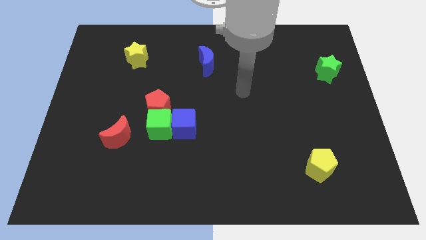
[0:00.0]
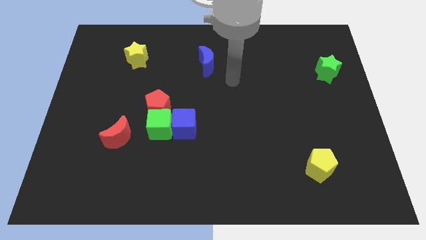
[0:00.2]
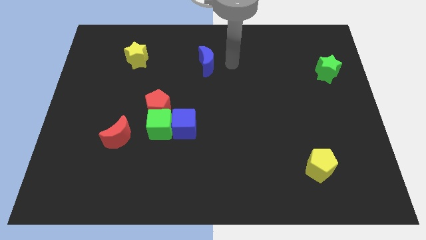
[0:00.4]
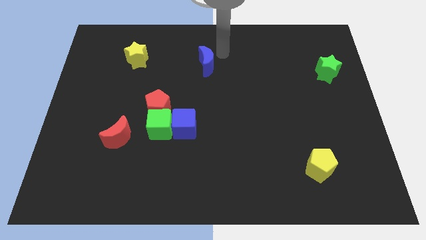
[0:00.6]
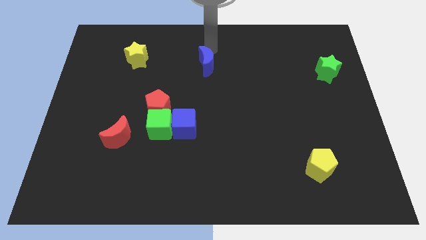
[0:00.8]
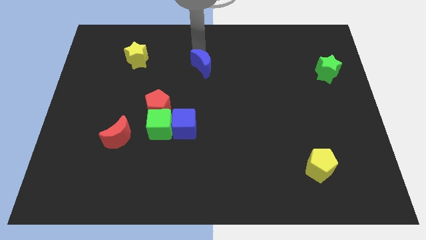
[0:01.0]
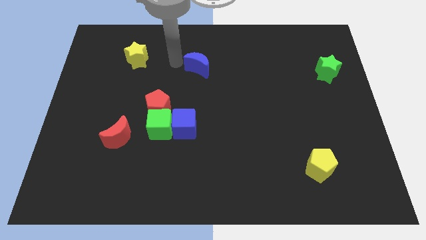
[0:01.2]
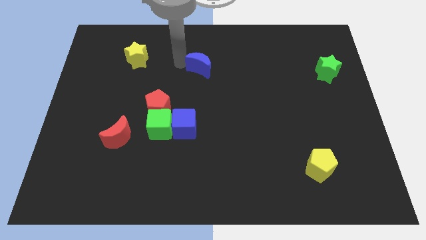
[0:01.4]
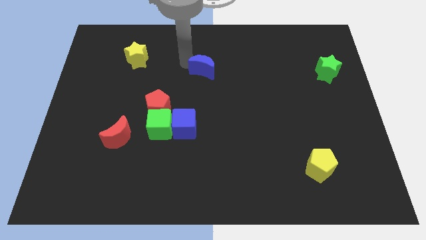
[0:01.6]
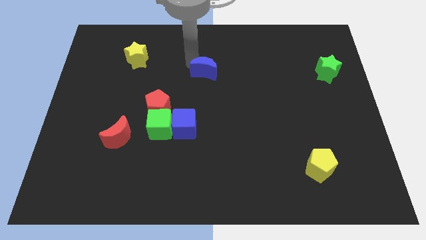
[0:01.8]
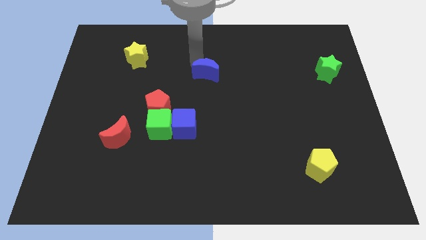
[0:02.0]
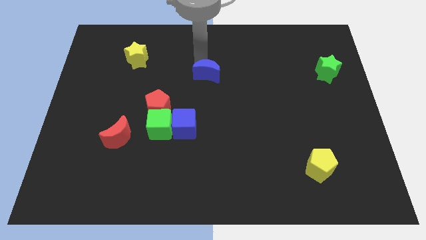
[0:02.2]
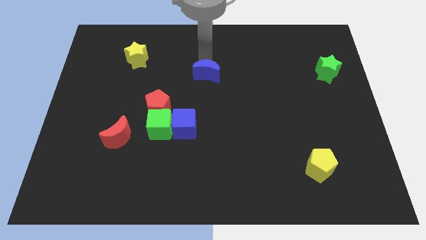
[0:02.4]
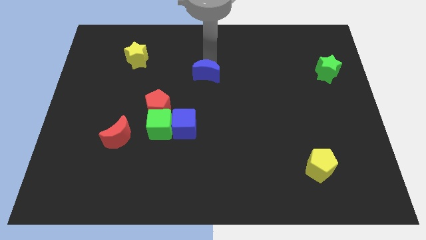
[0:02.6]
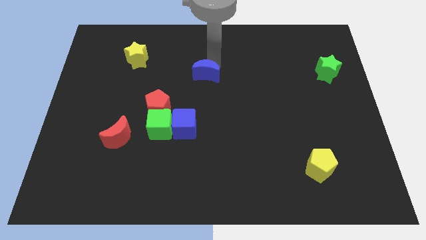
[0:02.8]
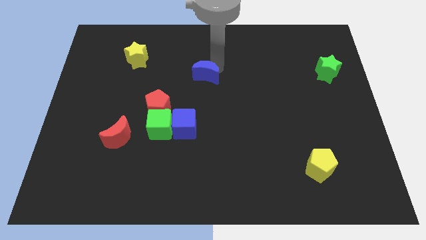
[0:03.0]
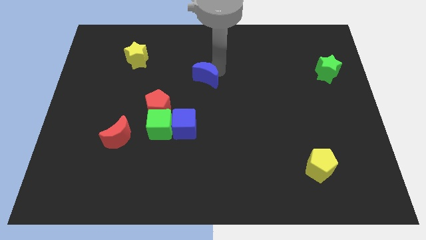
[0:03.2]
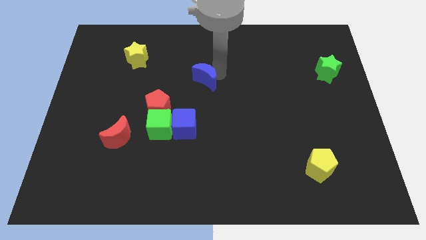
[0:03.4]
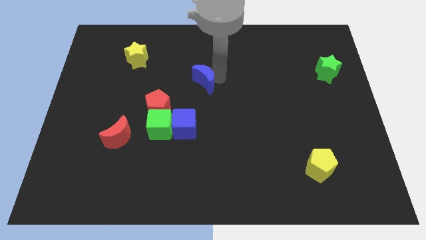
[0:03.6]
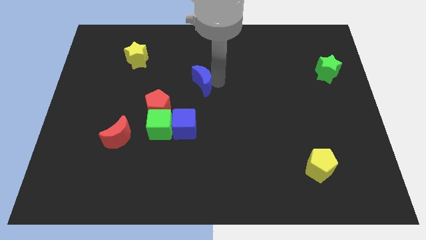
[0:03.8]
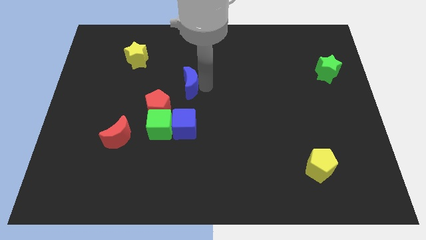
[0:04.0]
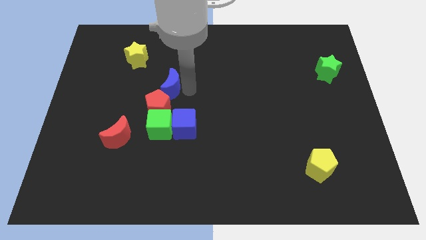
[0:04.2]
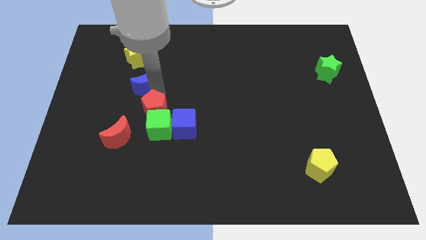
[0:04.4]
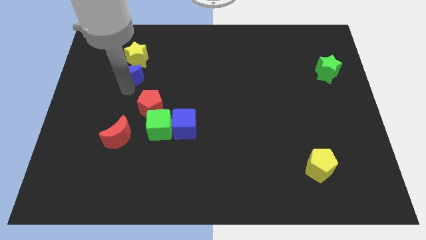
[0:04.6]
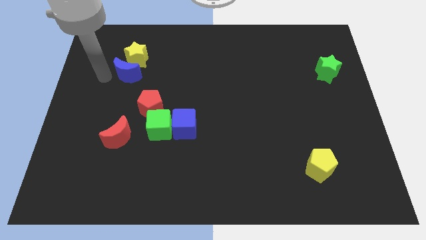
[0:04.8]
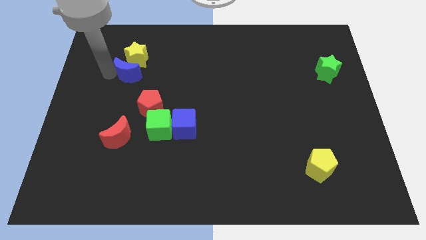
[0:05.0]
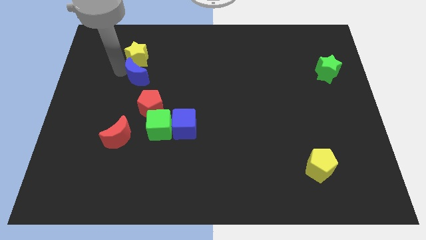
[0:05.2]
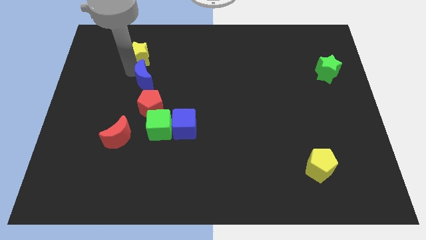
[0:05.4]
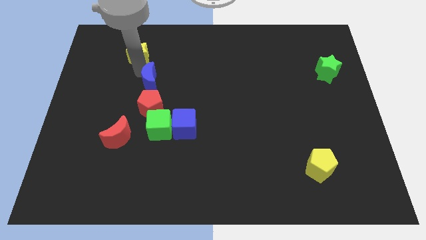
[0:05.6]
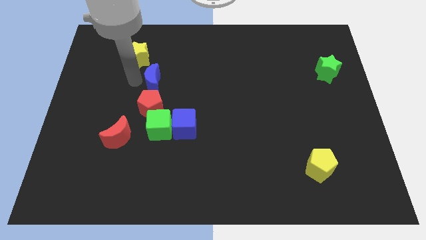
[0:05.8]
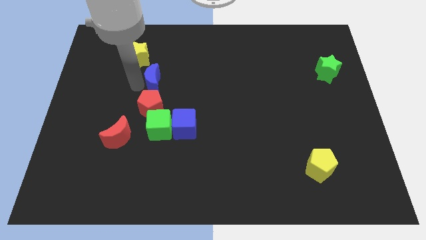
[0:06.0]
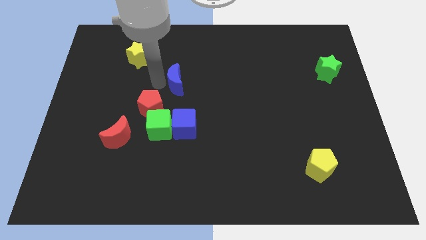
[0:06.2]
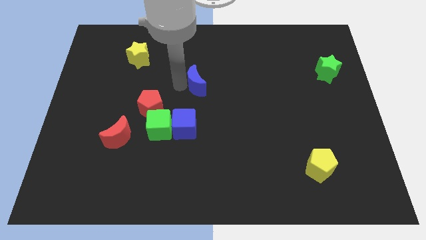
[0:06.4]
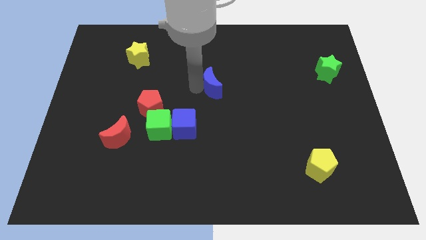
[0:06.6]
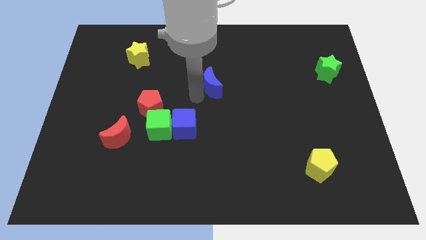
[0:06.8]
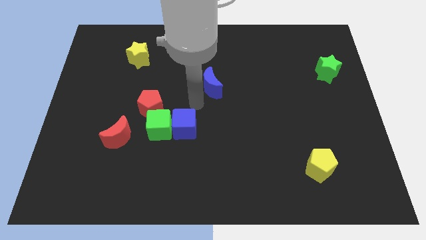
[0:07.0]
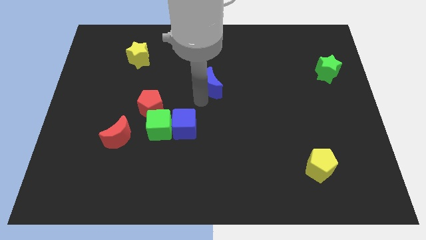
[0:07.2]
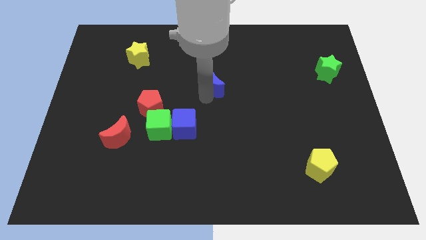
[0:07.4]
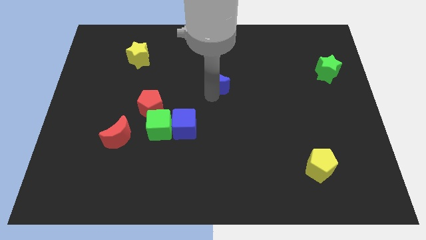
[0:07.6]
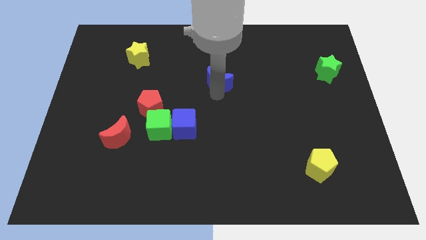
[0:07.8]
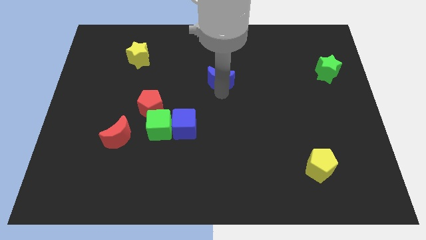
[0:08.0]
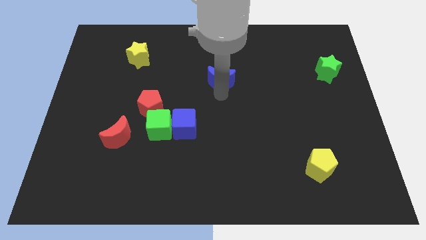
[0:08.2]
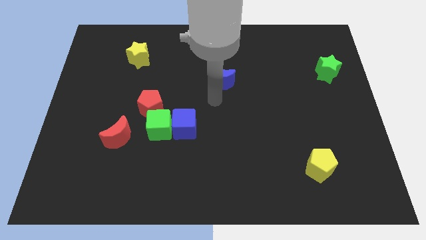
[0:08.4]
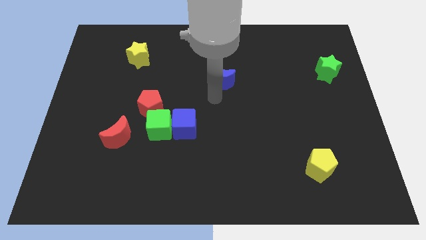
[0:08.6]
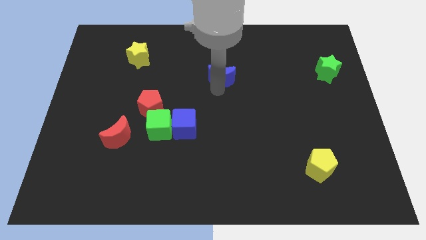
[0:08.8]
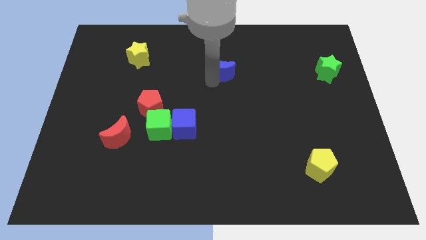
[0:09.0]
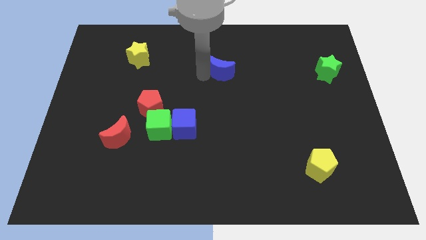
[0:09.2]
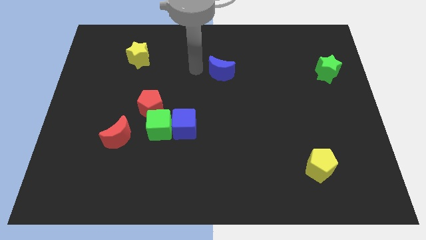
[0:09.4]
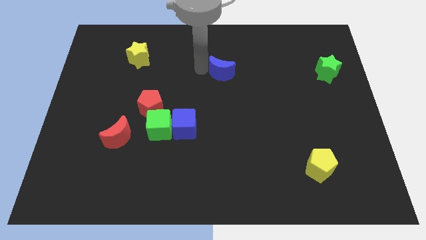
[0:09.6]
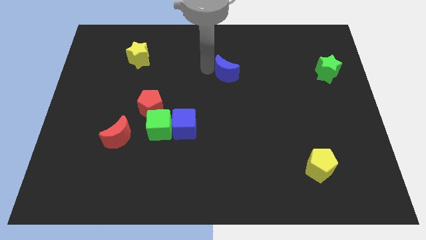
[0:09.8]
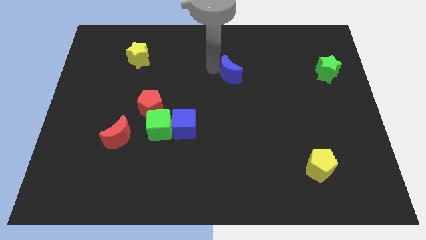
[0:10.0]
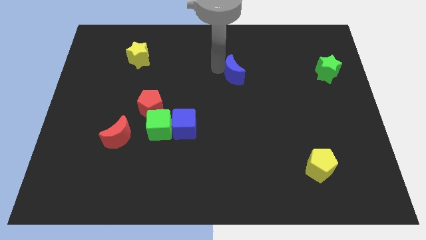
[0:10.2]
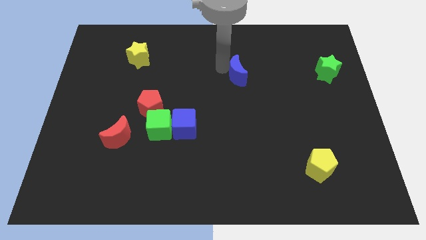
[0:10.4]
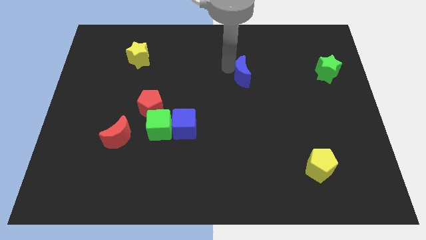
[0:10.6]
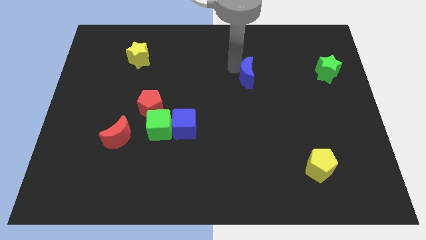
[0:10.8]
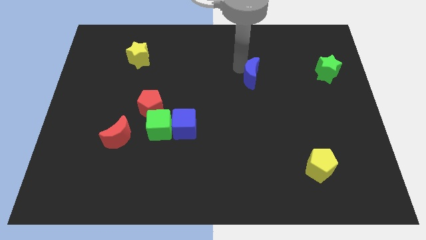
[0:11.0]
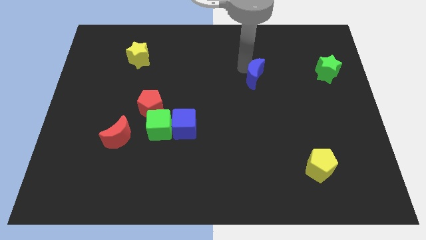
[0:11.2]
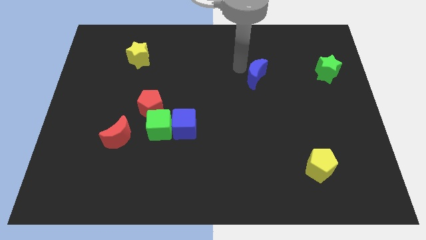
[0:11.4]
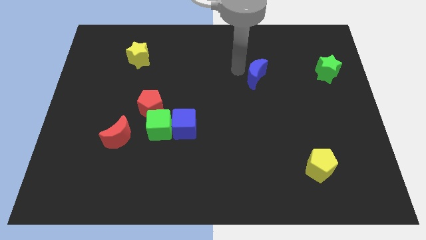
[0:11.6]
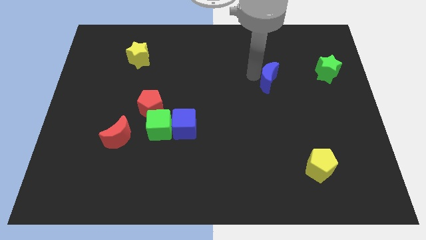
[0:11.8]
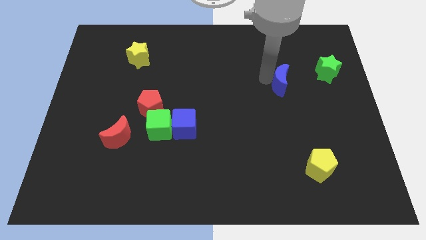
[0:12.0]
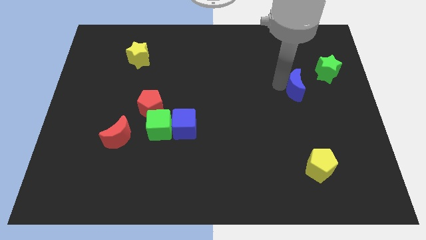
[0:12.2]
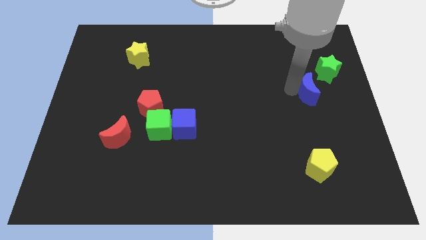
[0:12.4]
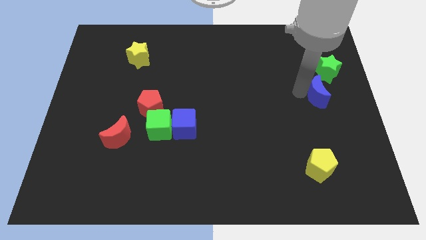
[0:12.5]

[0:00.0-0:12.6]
slide the blue moon to the center right

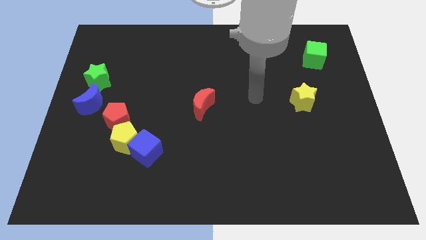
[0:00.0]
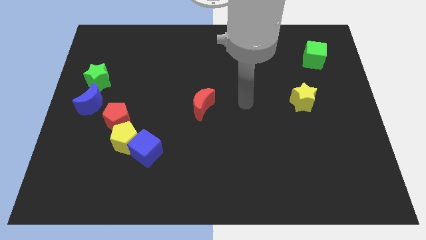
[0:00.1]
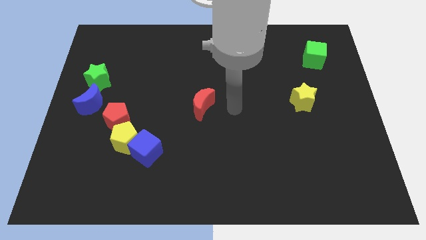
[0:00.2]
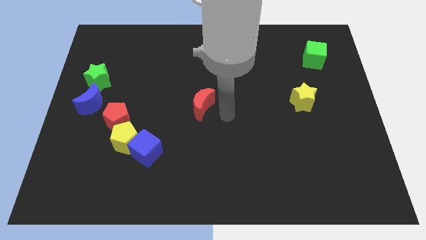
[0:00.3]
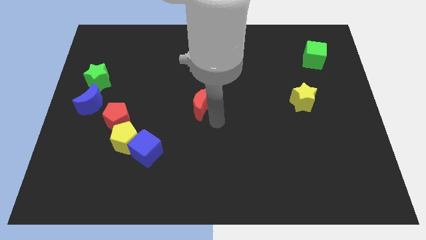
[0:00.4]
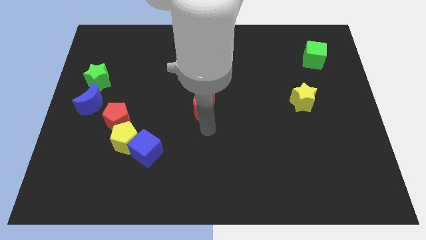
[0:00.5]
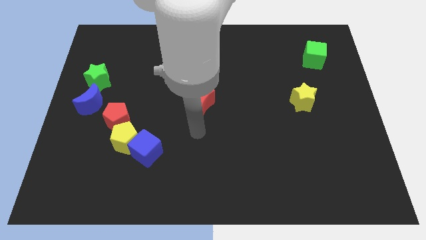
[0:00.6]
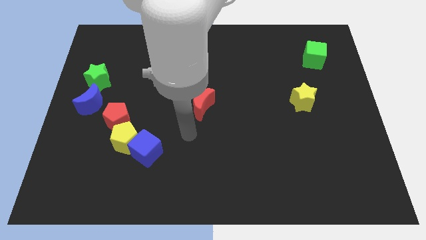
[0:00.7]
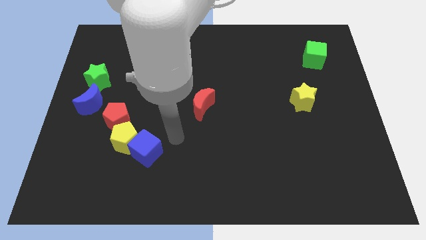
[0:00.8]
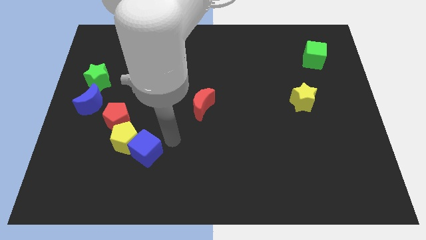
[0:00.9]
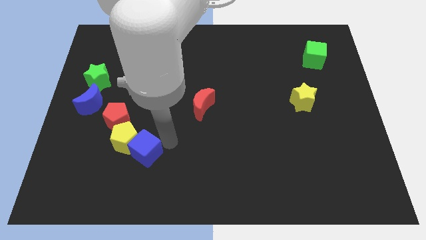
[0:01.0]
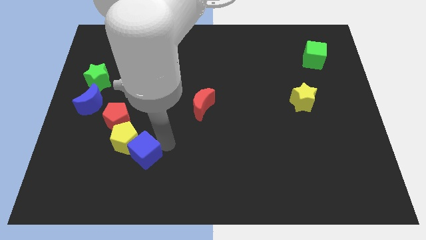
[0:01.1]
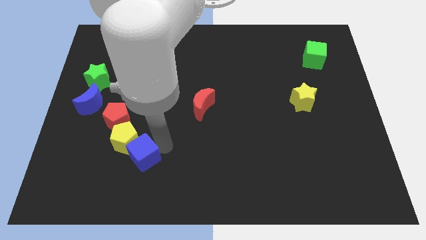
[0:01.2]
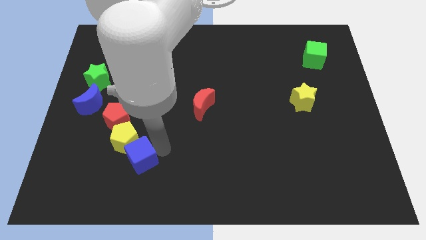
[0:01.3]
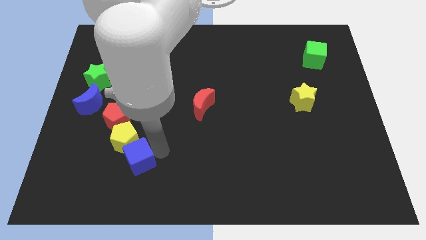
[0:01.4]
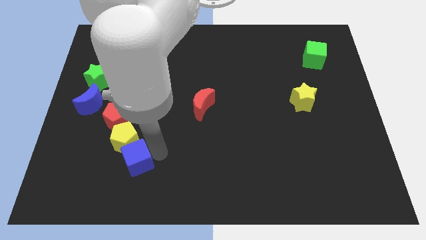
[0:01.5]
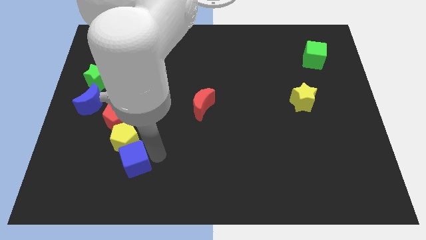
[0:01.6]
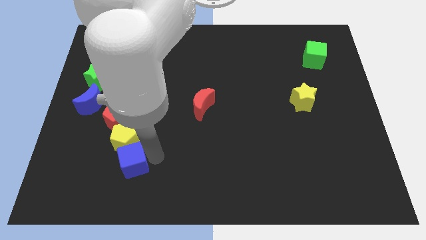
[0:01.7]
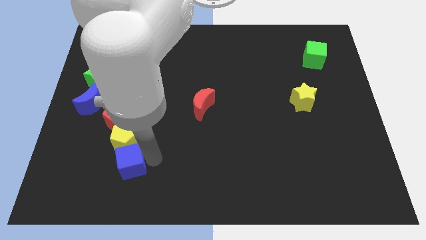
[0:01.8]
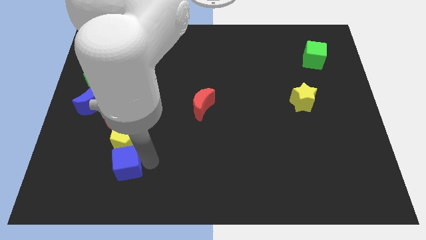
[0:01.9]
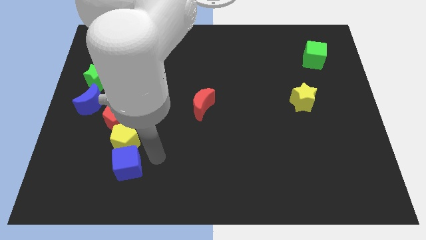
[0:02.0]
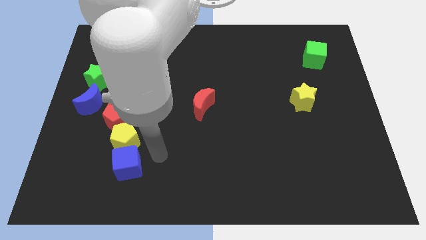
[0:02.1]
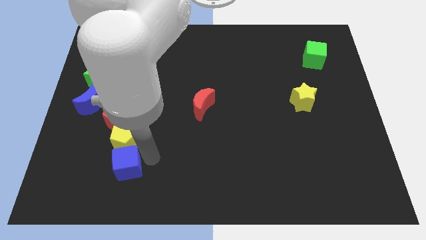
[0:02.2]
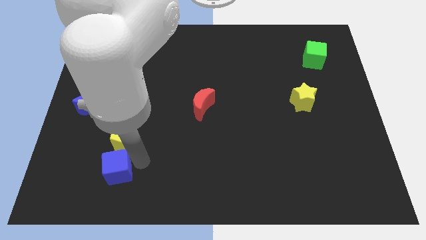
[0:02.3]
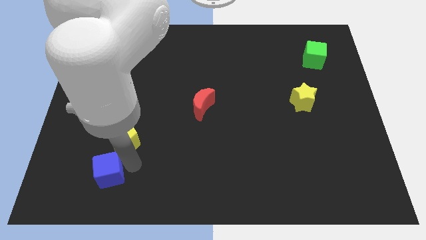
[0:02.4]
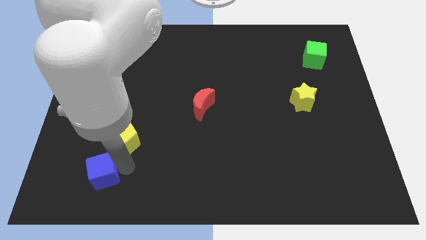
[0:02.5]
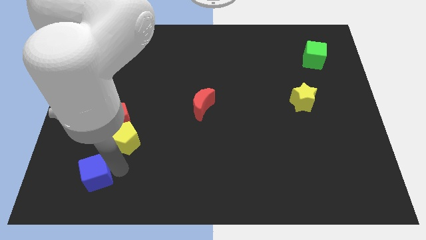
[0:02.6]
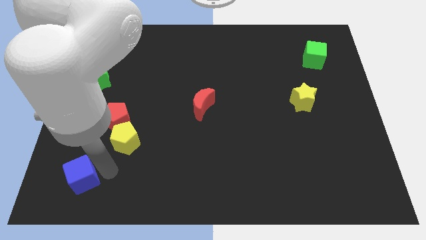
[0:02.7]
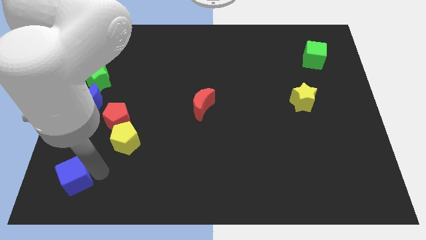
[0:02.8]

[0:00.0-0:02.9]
move the blue cube to the bottom left of the board
